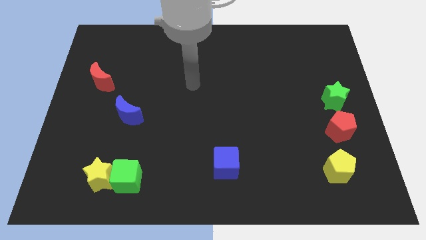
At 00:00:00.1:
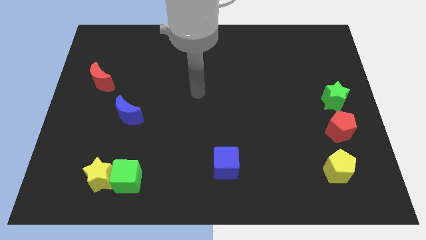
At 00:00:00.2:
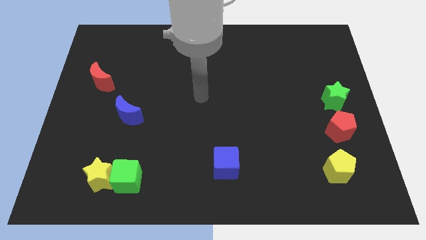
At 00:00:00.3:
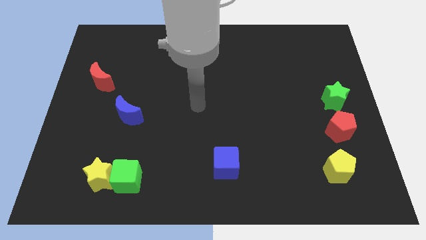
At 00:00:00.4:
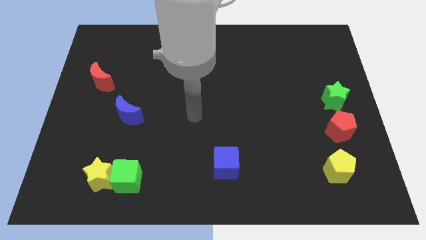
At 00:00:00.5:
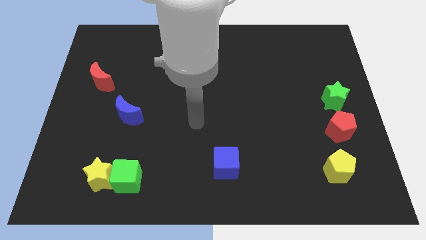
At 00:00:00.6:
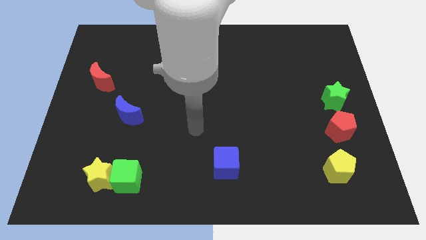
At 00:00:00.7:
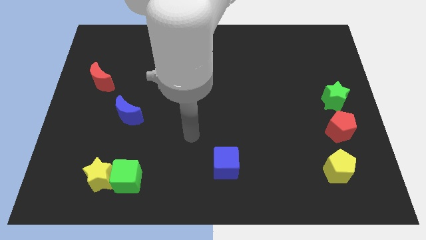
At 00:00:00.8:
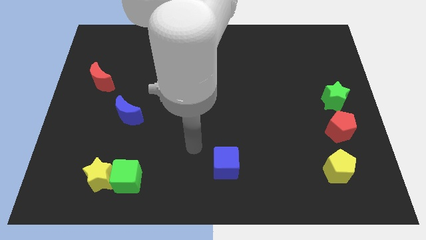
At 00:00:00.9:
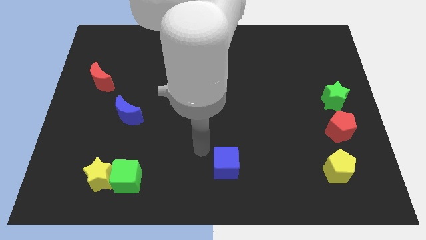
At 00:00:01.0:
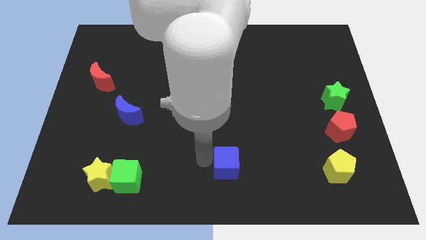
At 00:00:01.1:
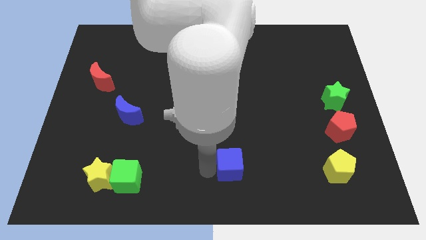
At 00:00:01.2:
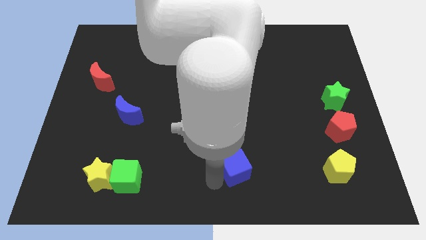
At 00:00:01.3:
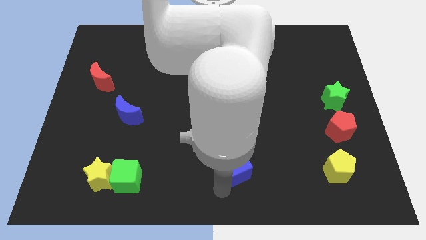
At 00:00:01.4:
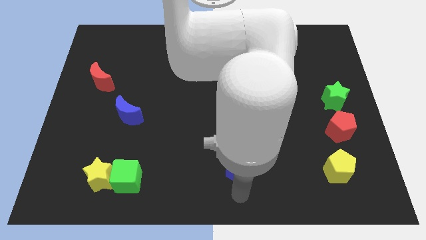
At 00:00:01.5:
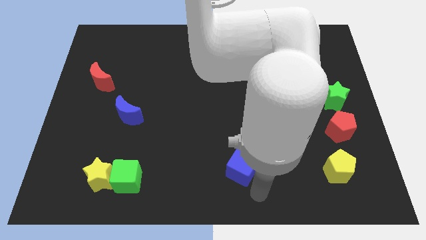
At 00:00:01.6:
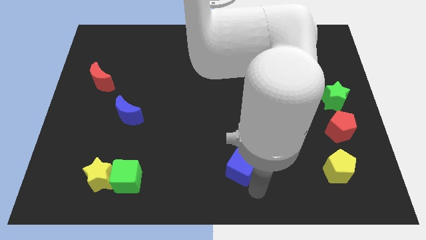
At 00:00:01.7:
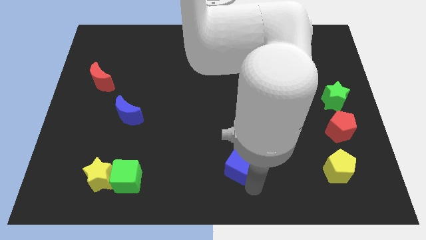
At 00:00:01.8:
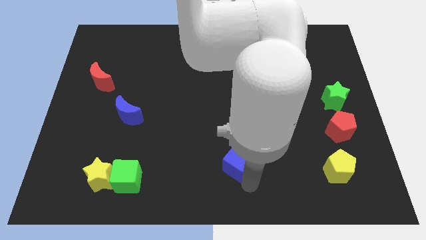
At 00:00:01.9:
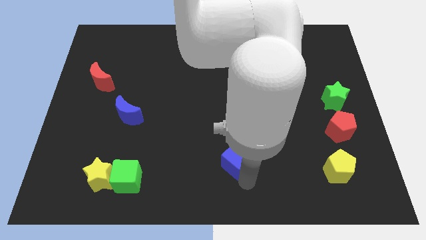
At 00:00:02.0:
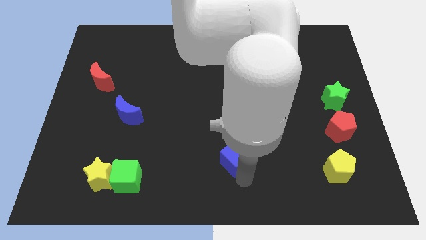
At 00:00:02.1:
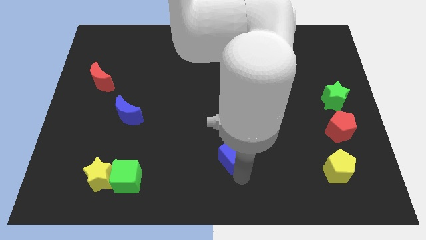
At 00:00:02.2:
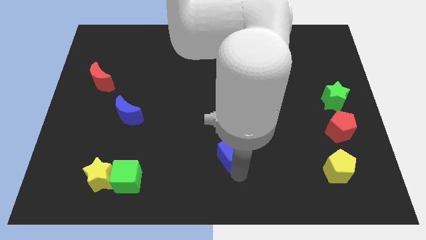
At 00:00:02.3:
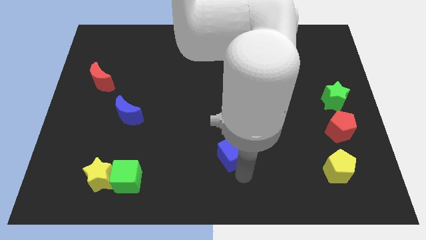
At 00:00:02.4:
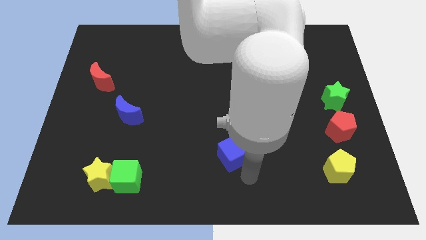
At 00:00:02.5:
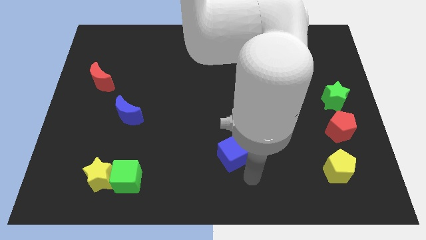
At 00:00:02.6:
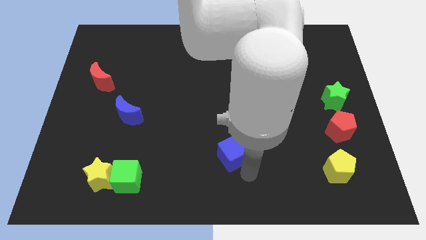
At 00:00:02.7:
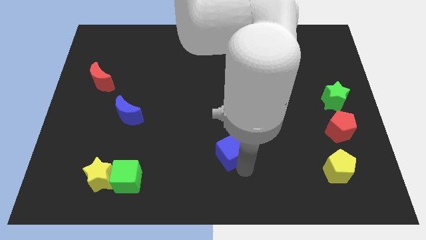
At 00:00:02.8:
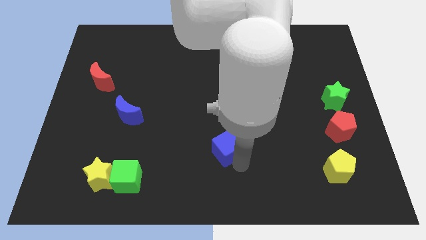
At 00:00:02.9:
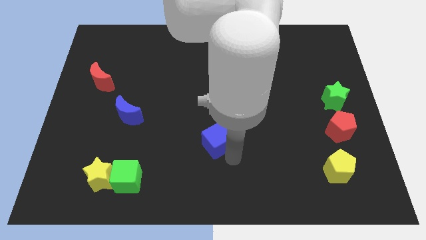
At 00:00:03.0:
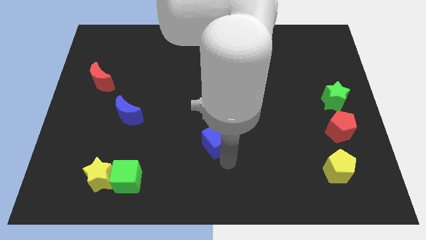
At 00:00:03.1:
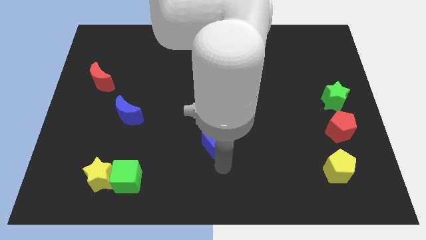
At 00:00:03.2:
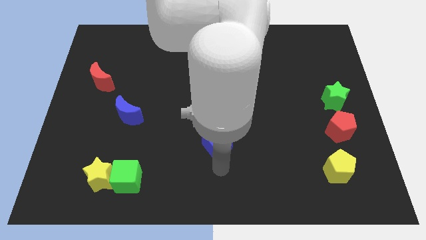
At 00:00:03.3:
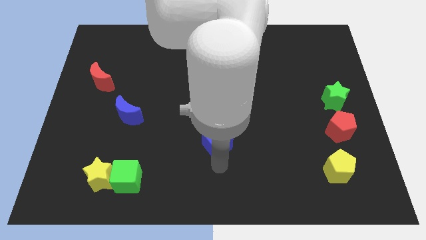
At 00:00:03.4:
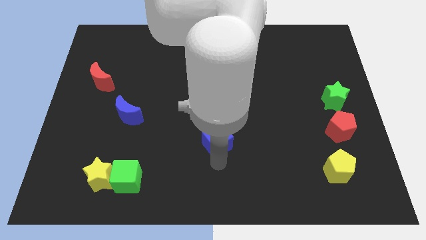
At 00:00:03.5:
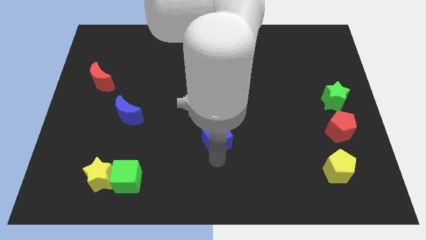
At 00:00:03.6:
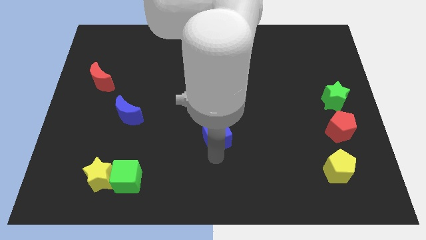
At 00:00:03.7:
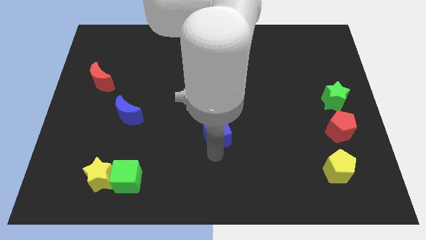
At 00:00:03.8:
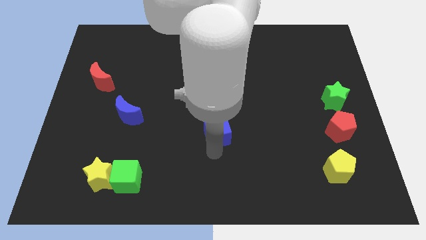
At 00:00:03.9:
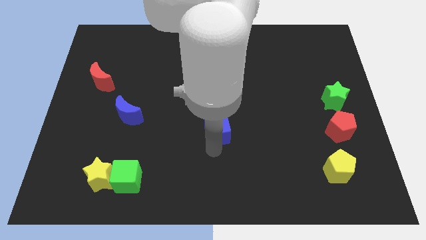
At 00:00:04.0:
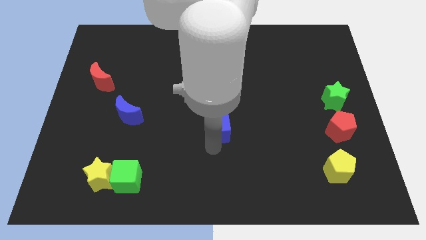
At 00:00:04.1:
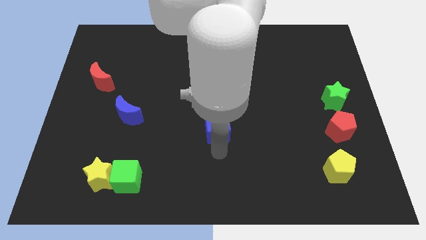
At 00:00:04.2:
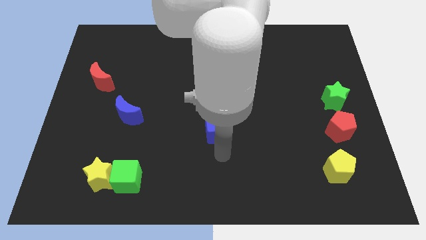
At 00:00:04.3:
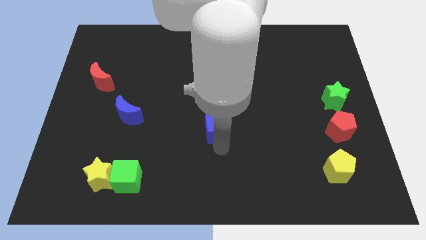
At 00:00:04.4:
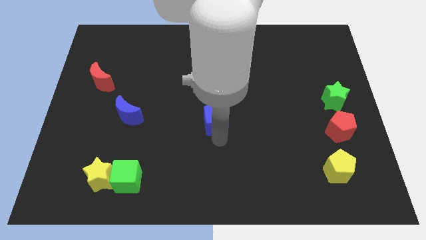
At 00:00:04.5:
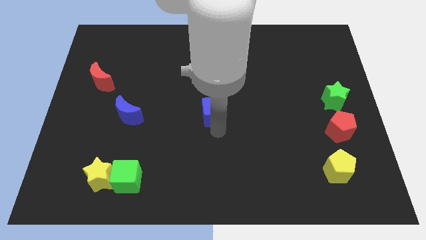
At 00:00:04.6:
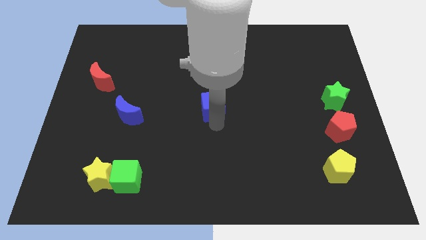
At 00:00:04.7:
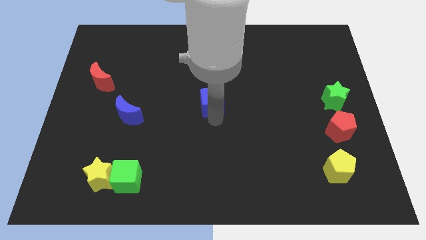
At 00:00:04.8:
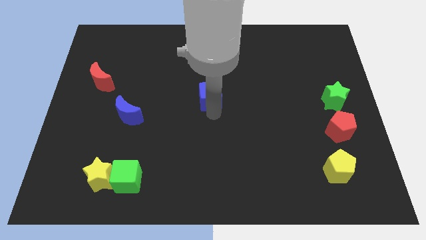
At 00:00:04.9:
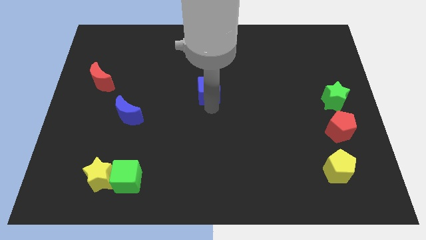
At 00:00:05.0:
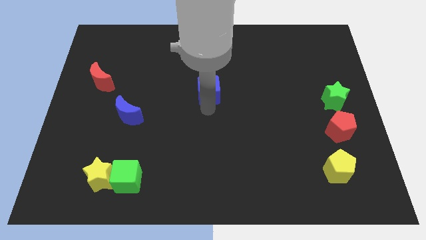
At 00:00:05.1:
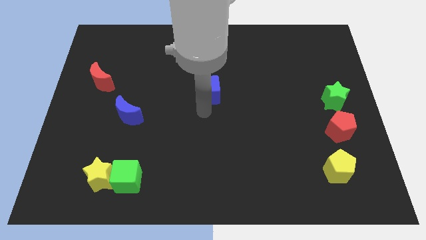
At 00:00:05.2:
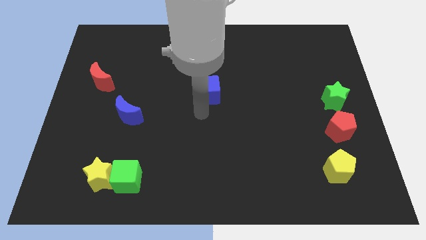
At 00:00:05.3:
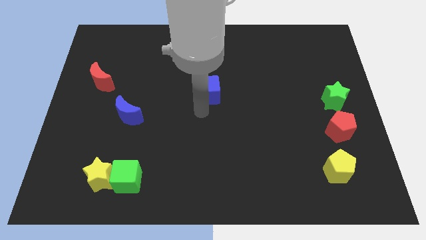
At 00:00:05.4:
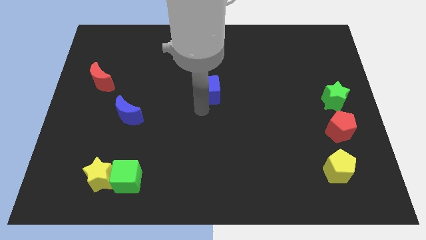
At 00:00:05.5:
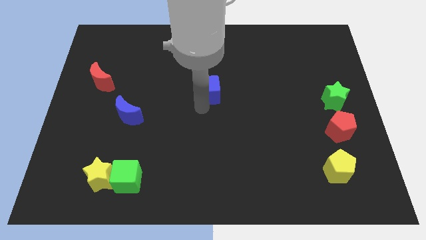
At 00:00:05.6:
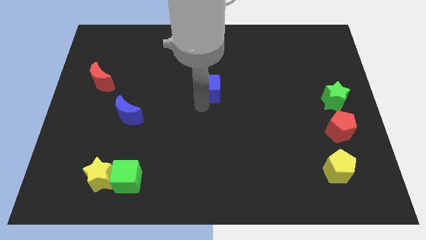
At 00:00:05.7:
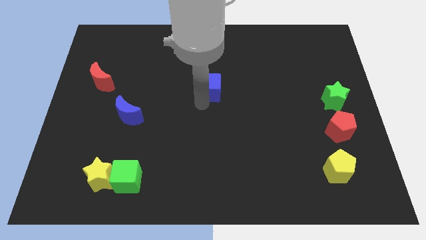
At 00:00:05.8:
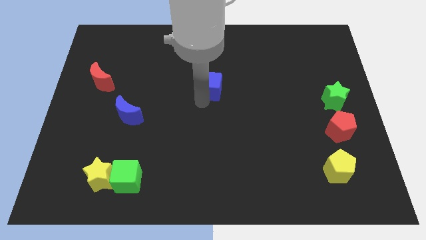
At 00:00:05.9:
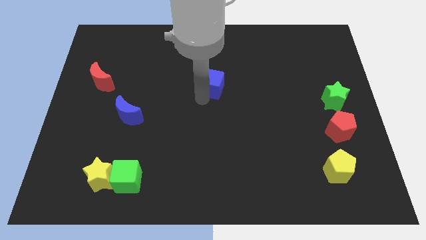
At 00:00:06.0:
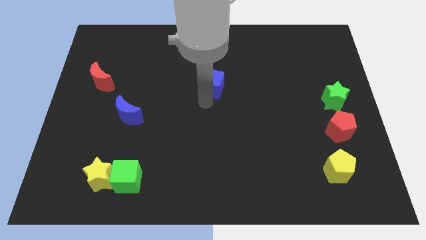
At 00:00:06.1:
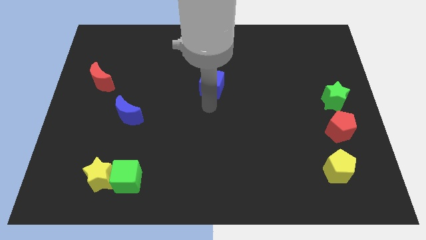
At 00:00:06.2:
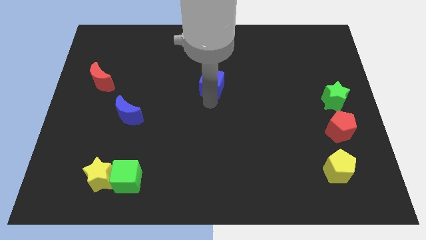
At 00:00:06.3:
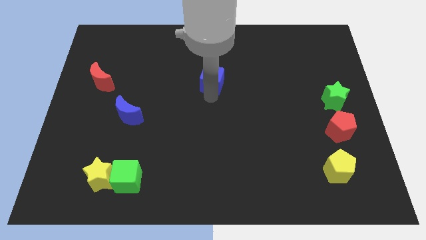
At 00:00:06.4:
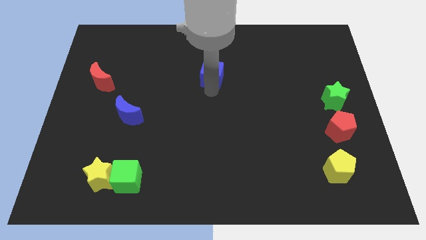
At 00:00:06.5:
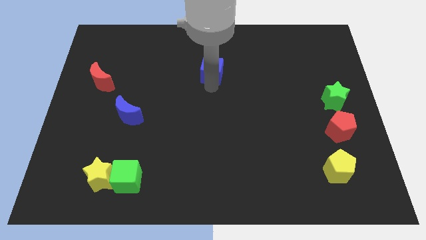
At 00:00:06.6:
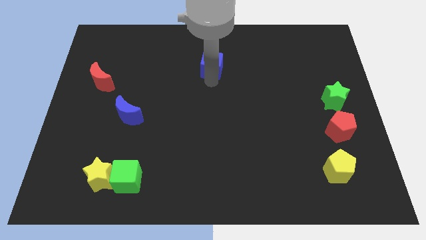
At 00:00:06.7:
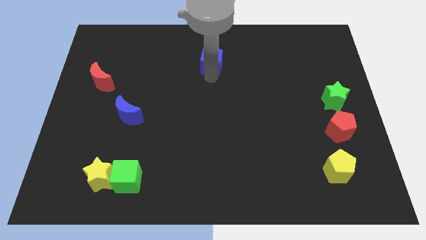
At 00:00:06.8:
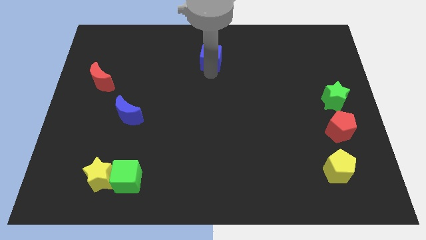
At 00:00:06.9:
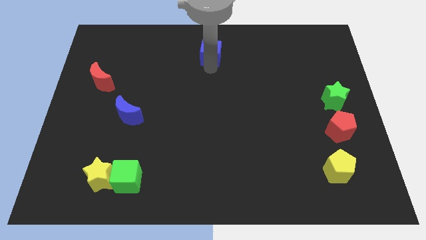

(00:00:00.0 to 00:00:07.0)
move the blue cube to the top
